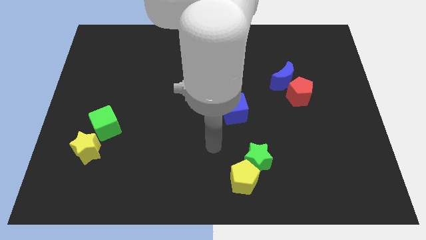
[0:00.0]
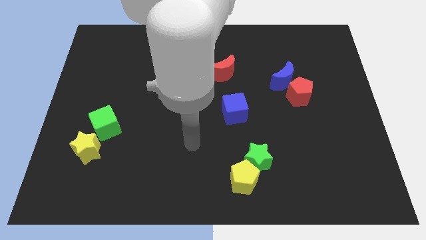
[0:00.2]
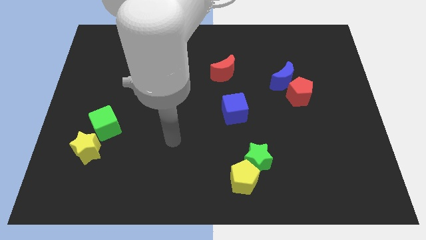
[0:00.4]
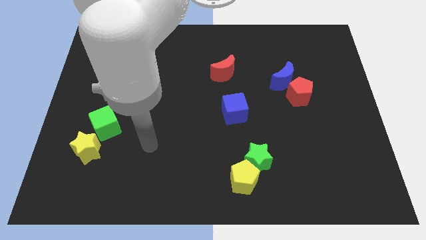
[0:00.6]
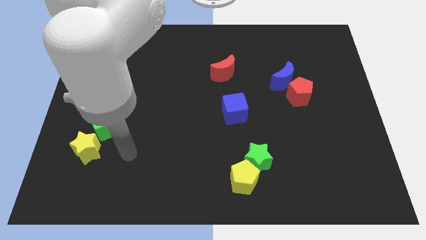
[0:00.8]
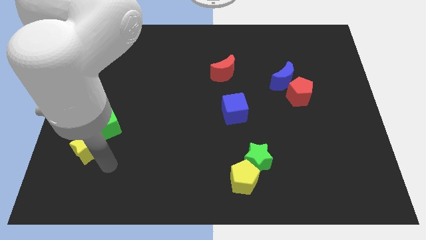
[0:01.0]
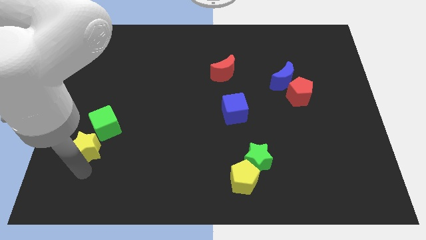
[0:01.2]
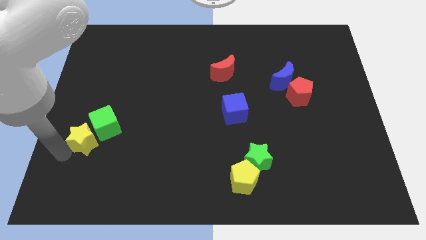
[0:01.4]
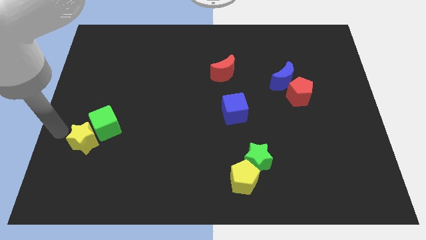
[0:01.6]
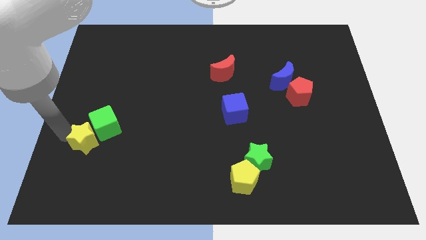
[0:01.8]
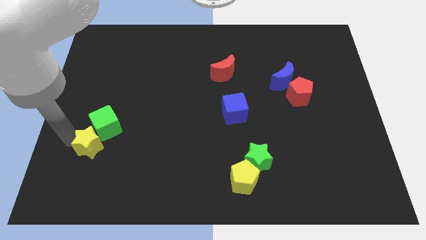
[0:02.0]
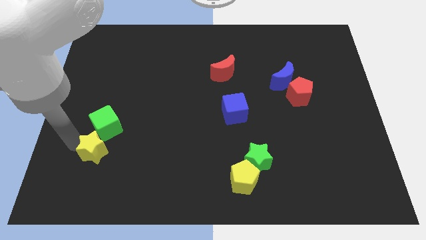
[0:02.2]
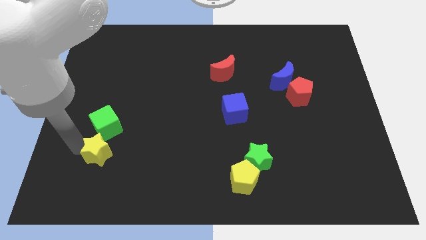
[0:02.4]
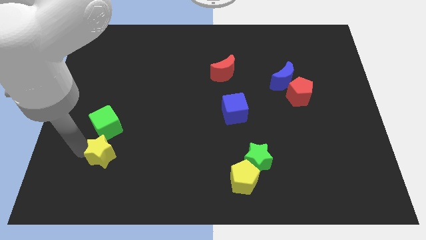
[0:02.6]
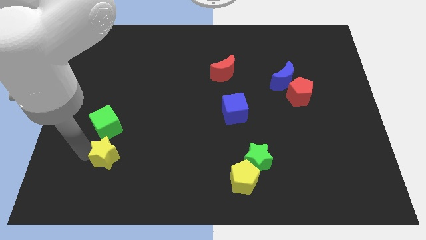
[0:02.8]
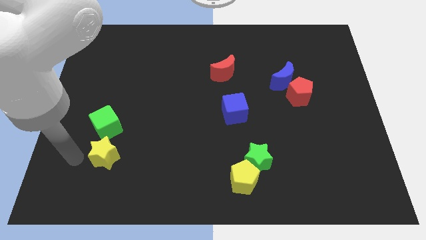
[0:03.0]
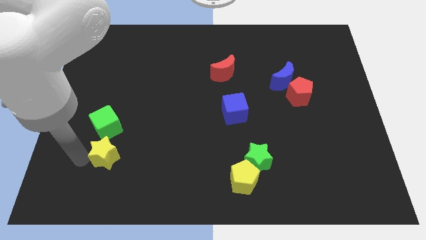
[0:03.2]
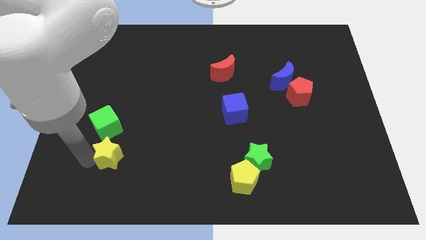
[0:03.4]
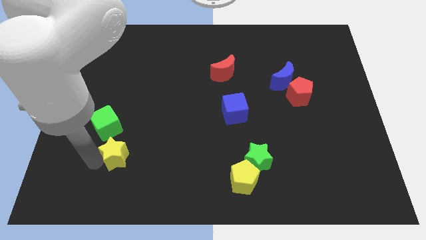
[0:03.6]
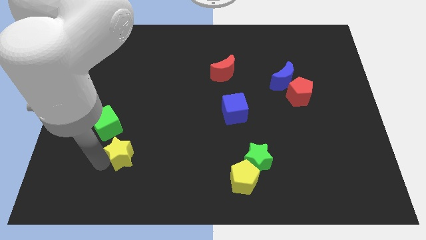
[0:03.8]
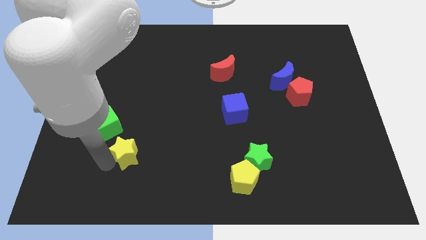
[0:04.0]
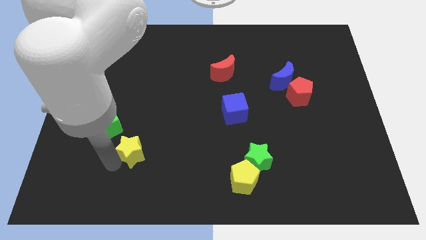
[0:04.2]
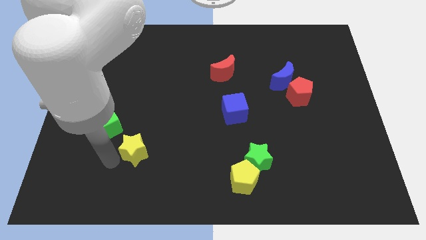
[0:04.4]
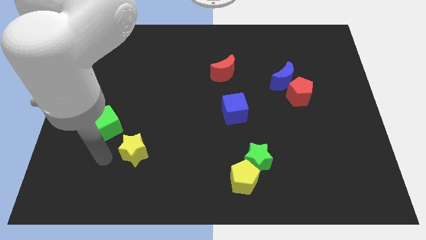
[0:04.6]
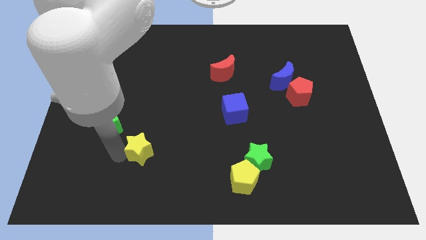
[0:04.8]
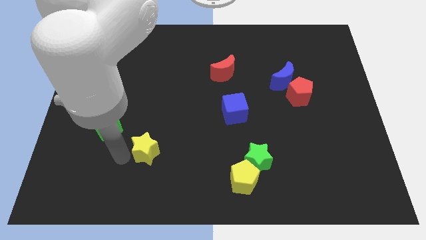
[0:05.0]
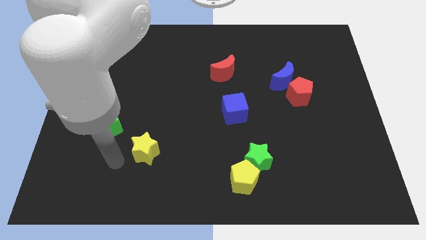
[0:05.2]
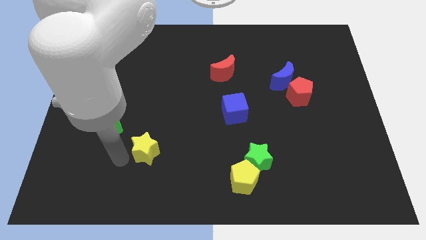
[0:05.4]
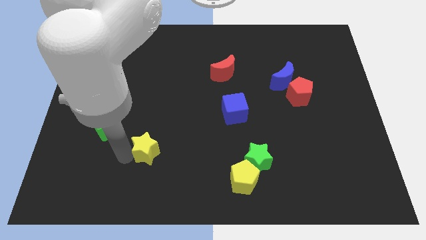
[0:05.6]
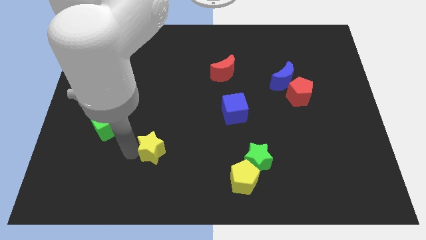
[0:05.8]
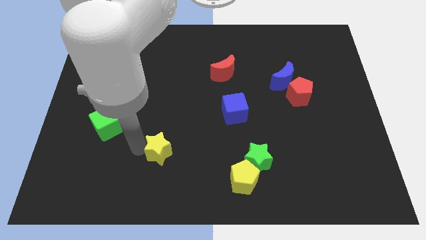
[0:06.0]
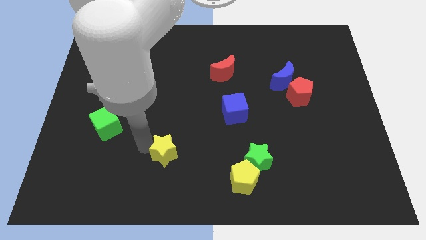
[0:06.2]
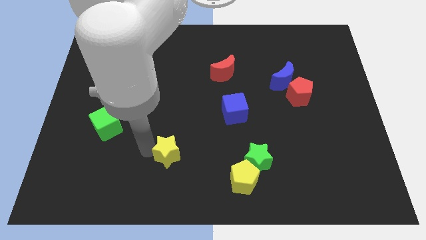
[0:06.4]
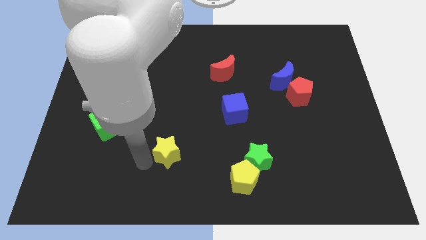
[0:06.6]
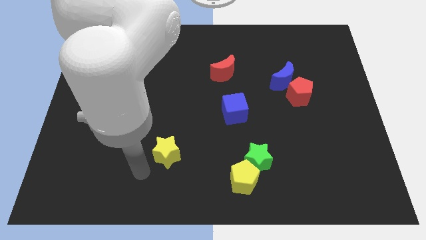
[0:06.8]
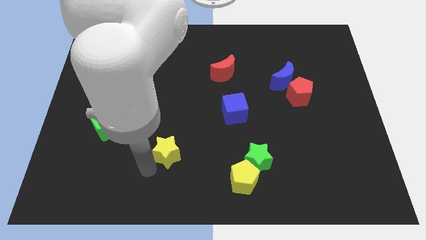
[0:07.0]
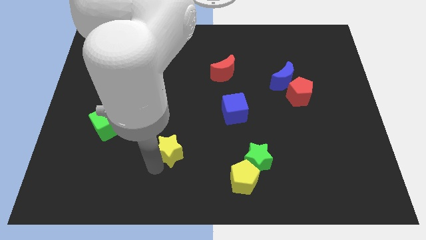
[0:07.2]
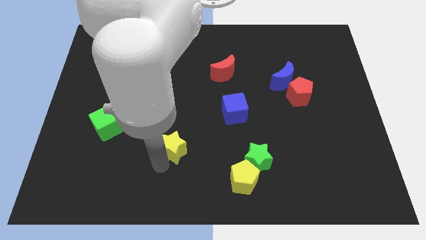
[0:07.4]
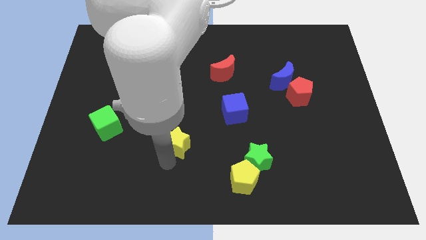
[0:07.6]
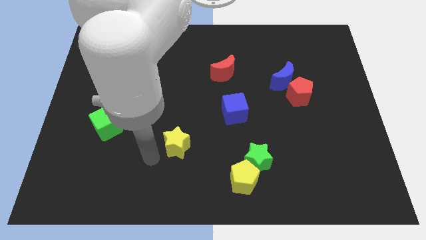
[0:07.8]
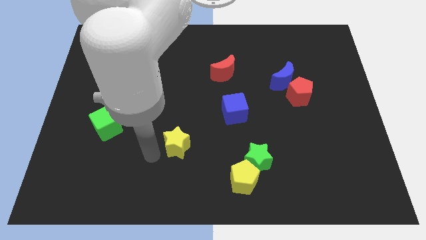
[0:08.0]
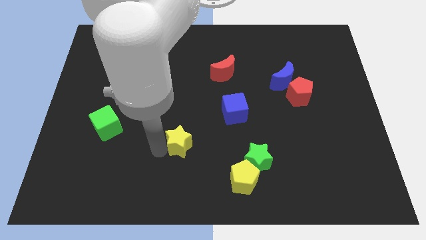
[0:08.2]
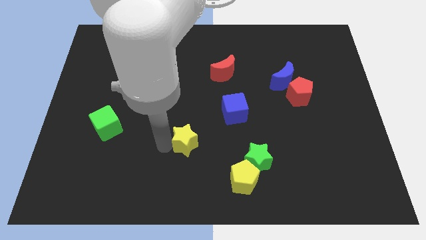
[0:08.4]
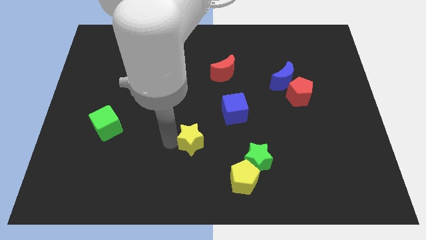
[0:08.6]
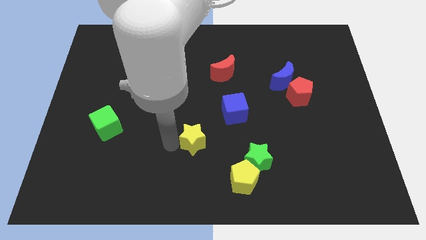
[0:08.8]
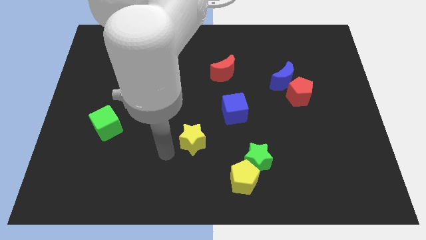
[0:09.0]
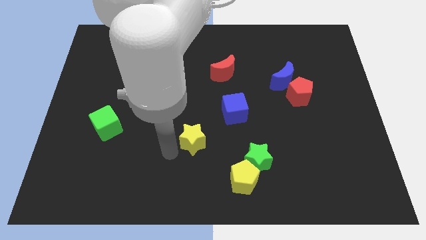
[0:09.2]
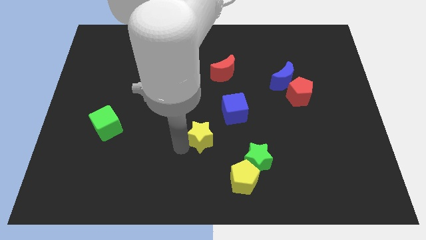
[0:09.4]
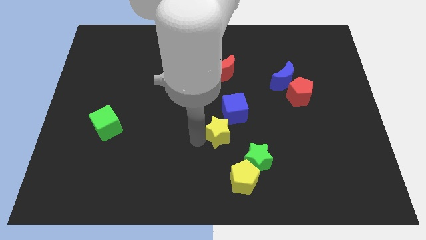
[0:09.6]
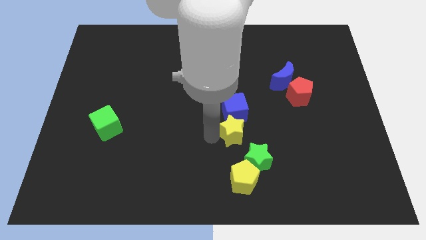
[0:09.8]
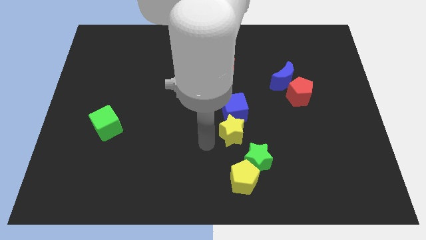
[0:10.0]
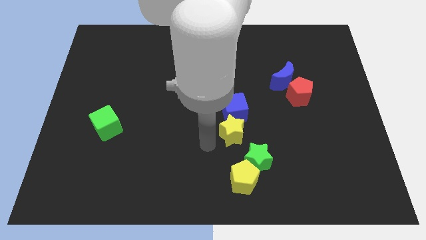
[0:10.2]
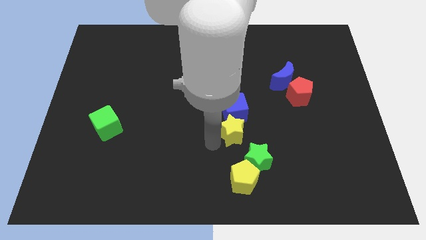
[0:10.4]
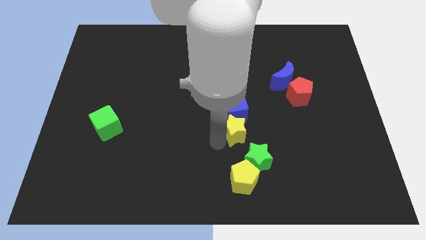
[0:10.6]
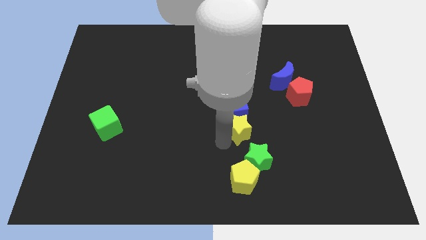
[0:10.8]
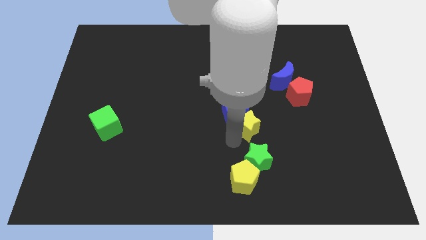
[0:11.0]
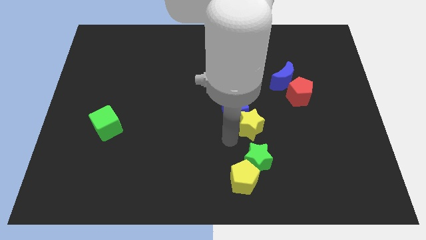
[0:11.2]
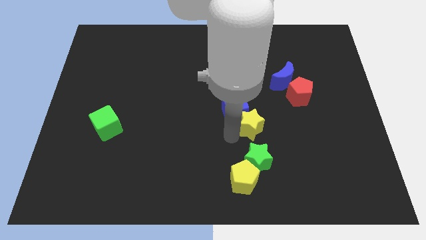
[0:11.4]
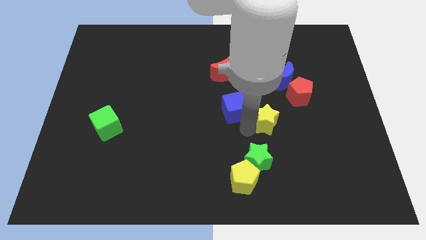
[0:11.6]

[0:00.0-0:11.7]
move the yellow star to the bottom left of the red pentagon

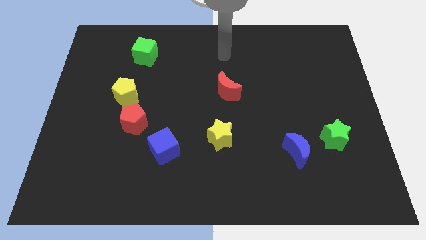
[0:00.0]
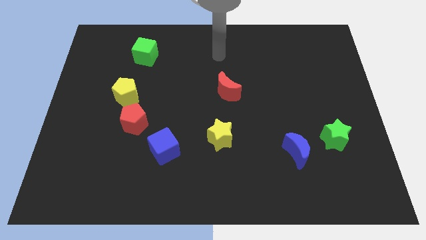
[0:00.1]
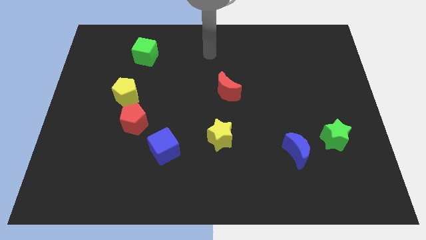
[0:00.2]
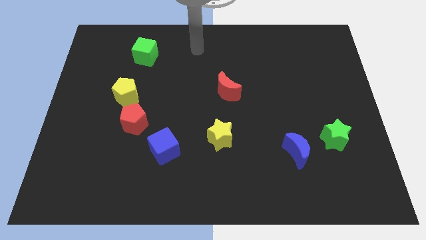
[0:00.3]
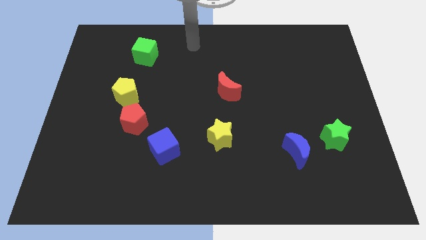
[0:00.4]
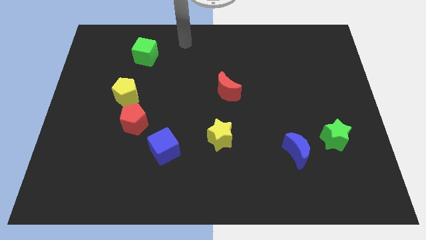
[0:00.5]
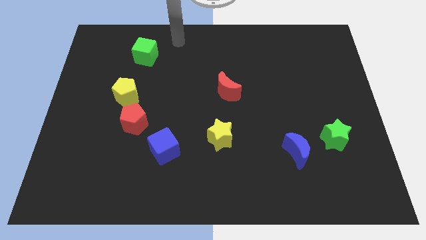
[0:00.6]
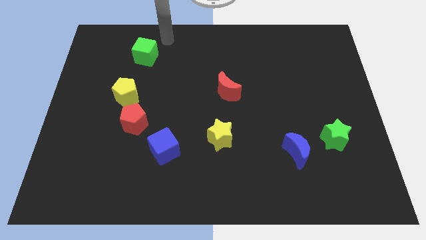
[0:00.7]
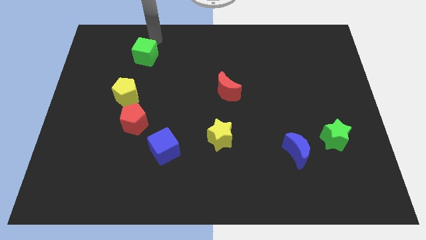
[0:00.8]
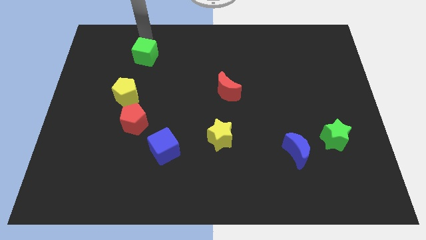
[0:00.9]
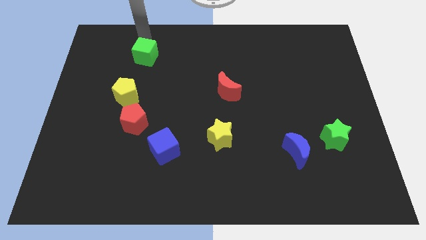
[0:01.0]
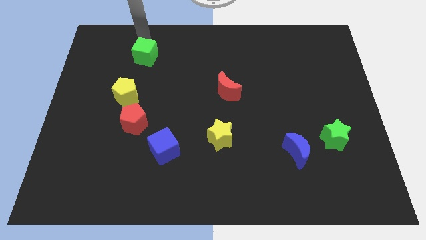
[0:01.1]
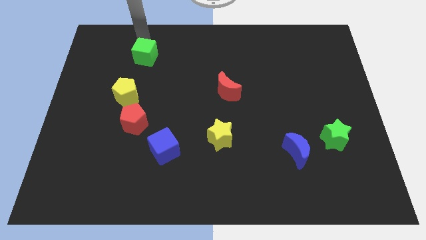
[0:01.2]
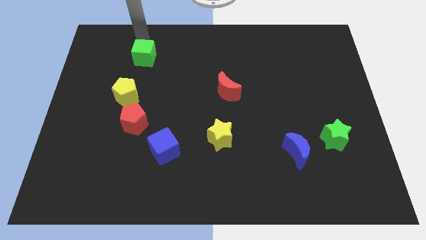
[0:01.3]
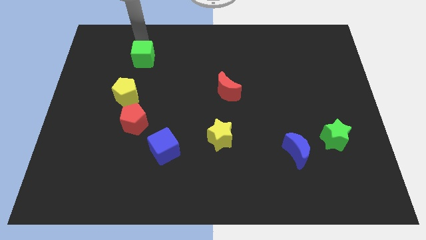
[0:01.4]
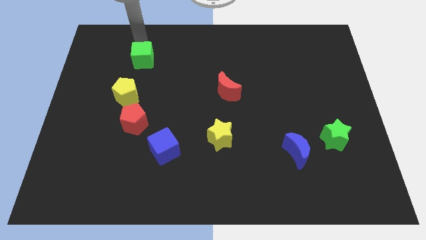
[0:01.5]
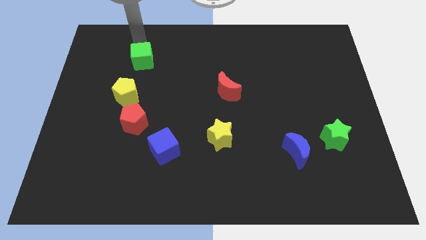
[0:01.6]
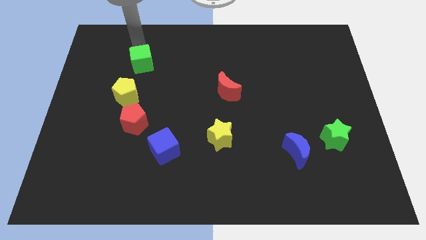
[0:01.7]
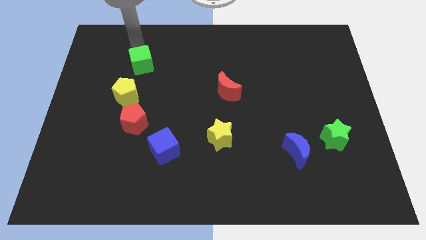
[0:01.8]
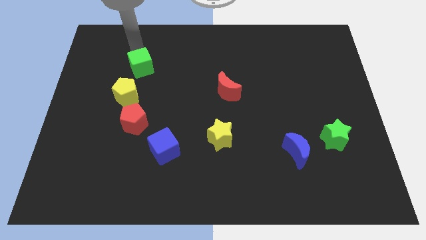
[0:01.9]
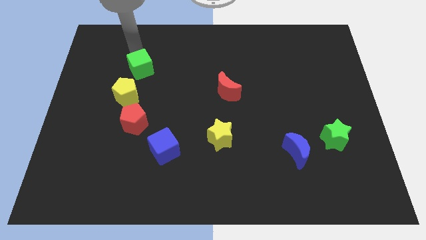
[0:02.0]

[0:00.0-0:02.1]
push the green cube to the top right of the yellow pentagon
